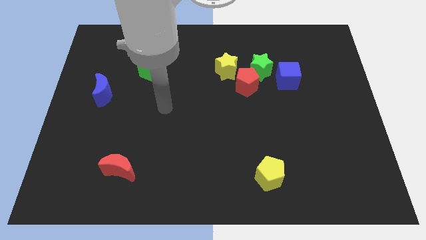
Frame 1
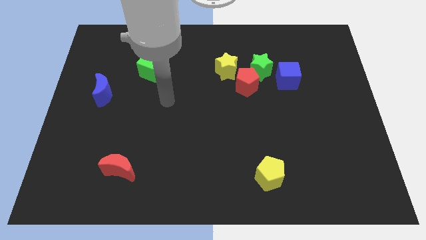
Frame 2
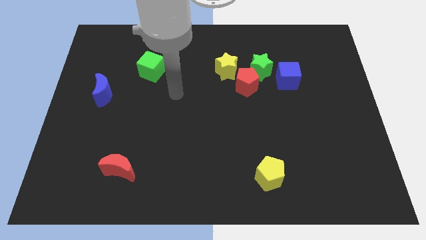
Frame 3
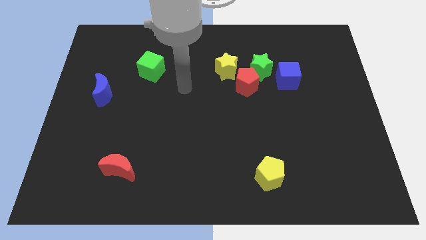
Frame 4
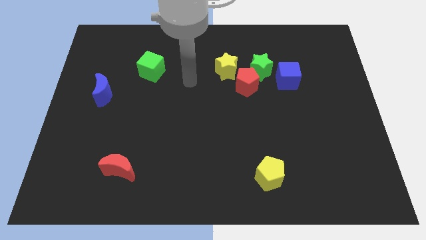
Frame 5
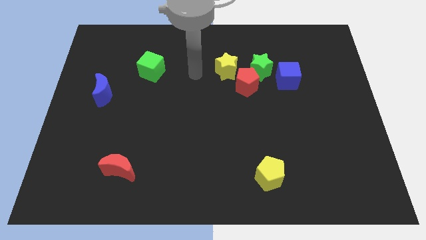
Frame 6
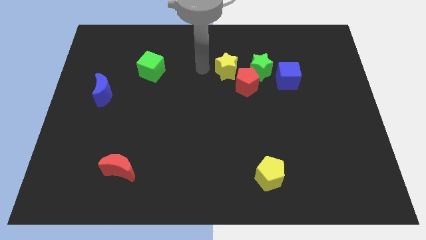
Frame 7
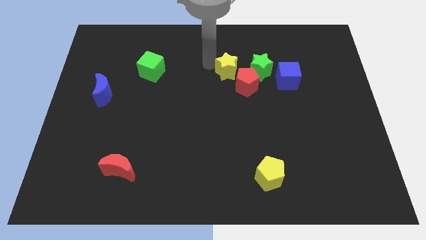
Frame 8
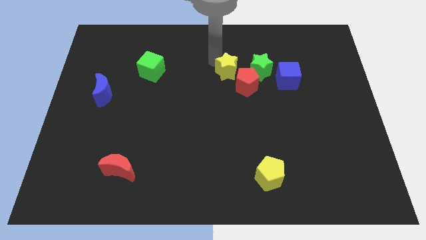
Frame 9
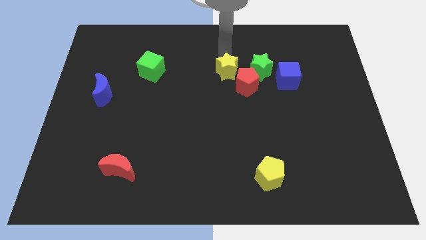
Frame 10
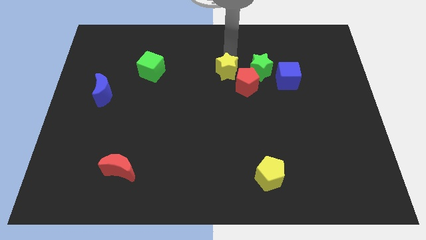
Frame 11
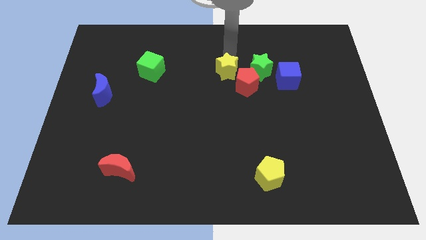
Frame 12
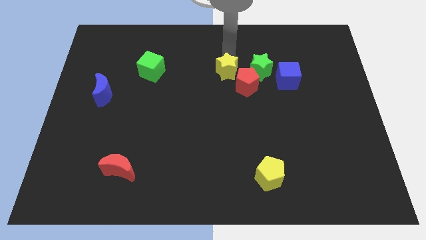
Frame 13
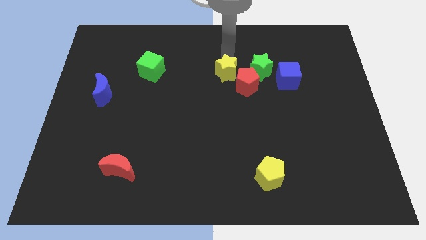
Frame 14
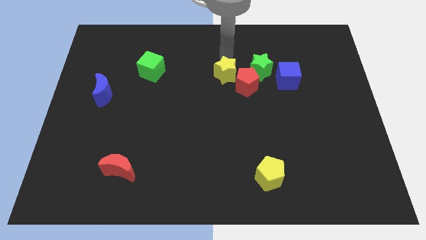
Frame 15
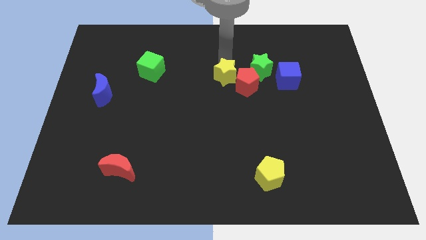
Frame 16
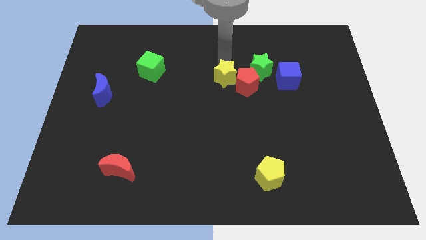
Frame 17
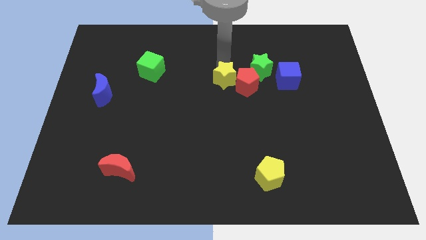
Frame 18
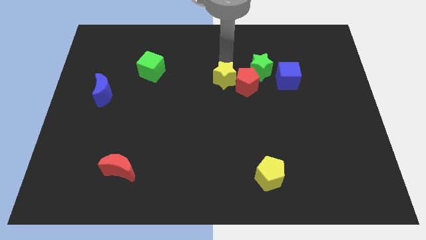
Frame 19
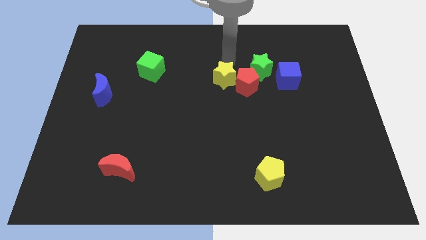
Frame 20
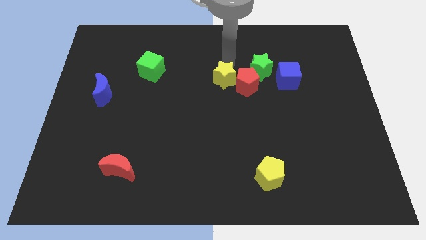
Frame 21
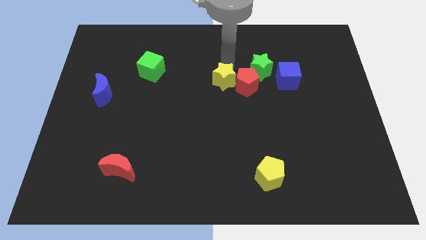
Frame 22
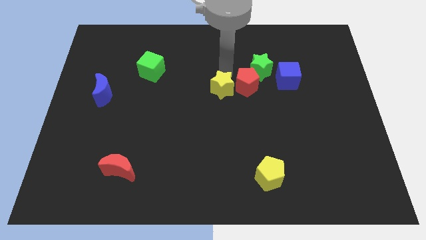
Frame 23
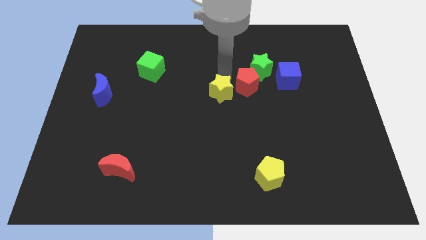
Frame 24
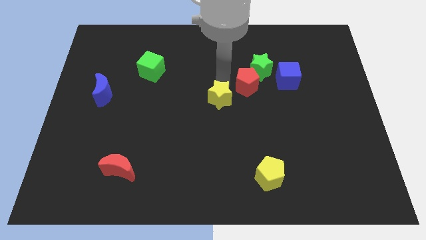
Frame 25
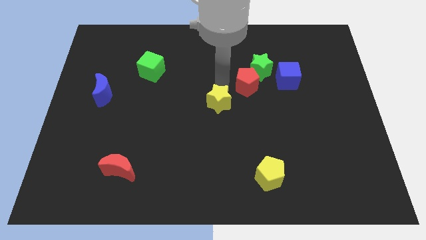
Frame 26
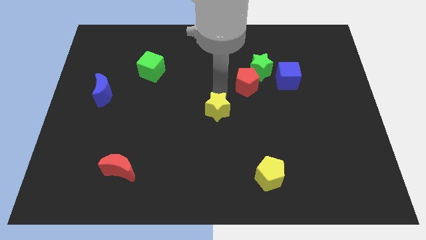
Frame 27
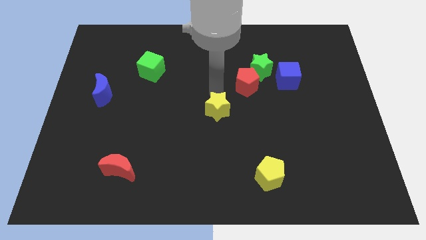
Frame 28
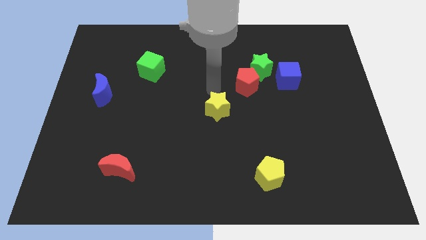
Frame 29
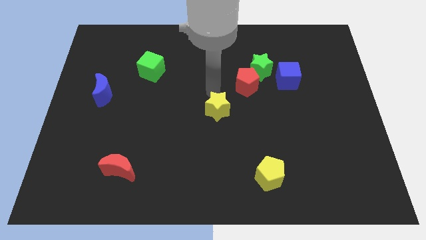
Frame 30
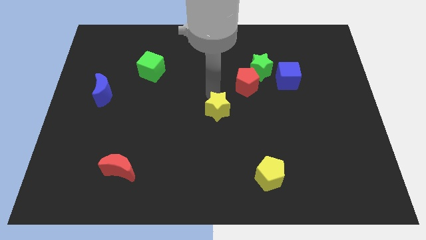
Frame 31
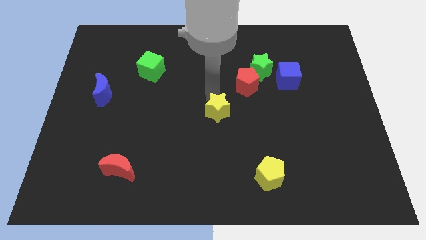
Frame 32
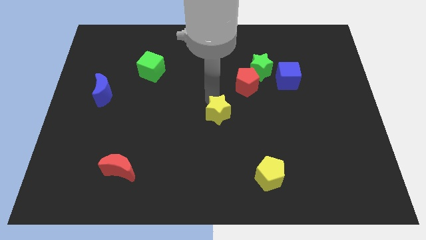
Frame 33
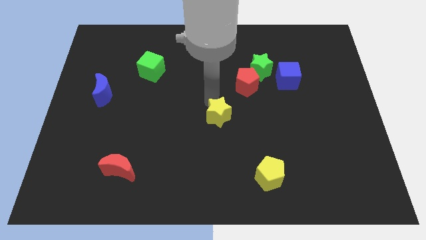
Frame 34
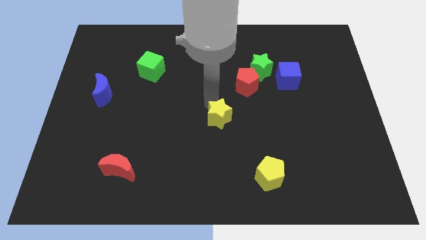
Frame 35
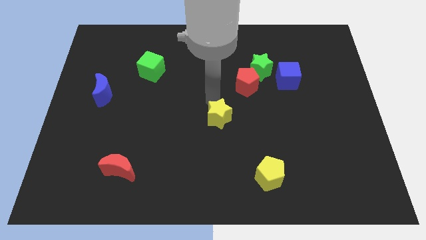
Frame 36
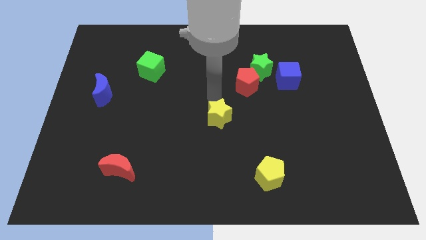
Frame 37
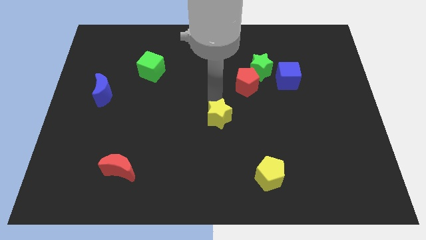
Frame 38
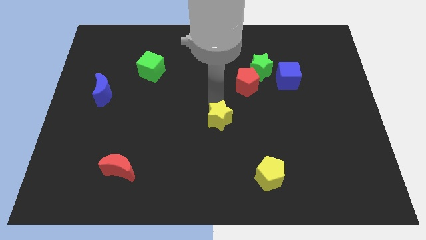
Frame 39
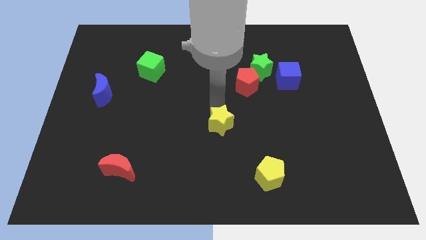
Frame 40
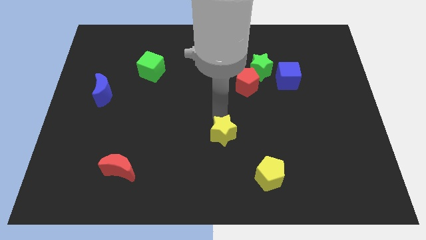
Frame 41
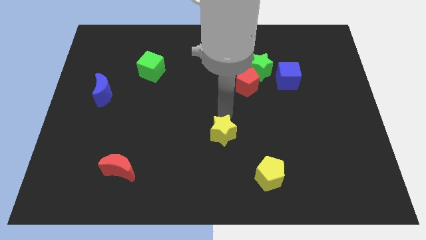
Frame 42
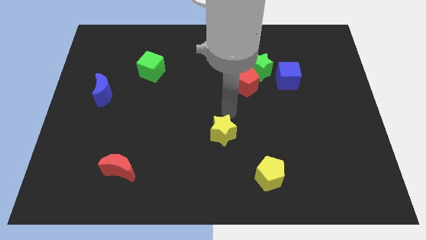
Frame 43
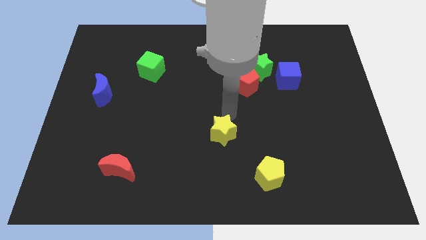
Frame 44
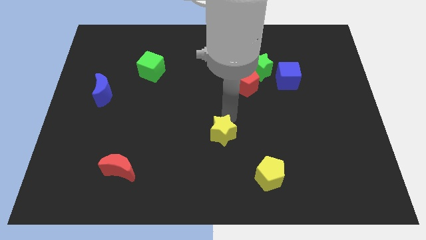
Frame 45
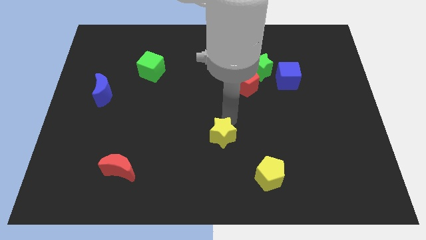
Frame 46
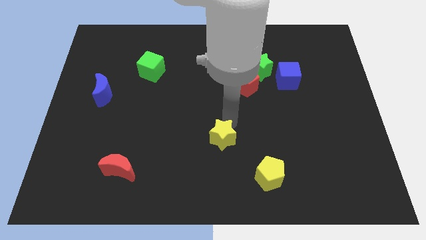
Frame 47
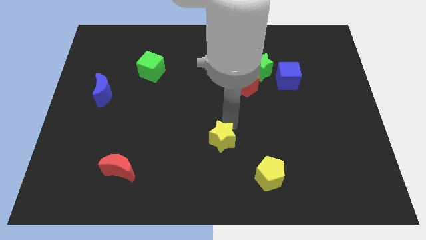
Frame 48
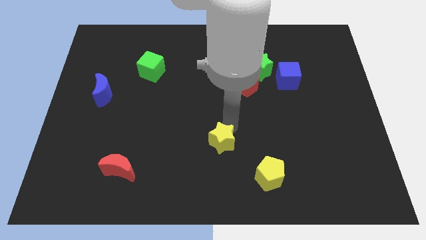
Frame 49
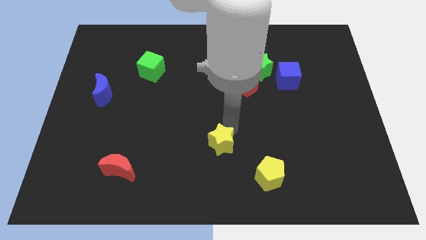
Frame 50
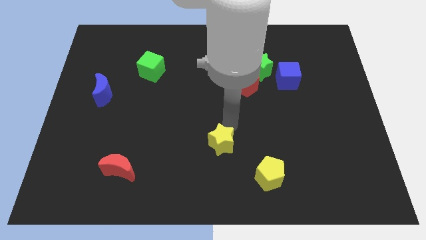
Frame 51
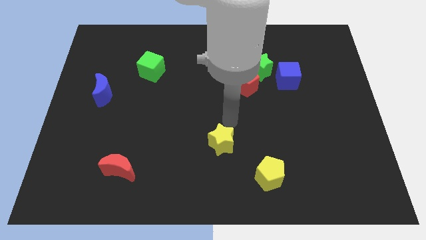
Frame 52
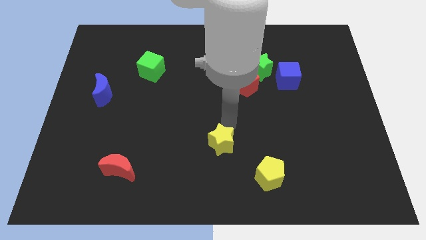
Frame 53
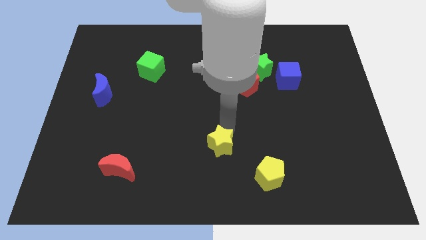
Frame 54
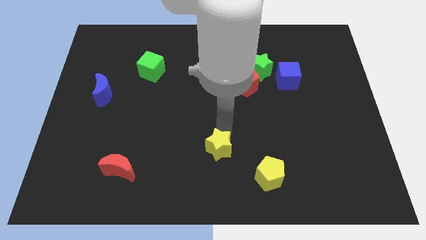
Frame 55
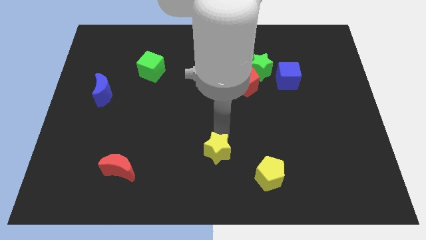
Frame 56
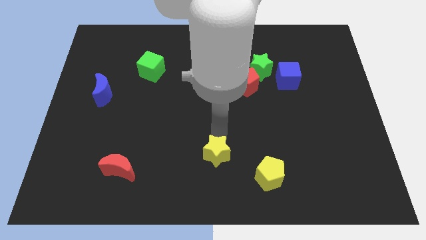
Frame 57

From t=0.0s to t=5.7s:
put the yellow star to the bottom

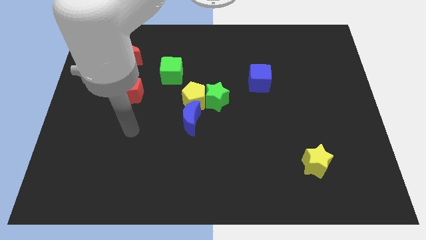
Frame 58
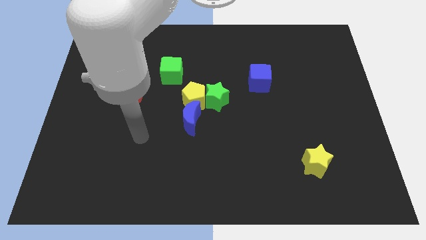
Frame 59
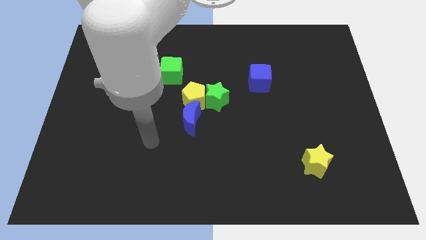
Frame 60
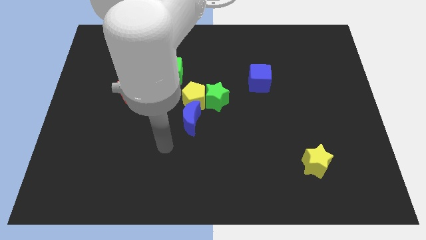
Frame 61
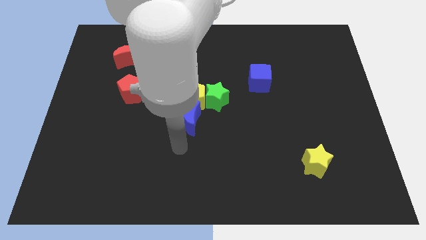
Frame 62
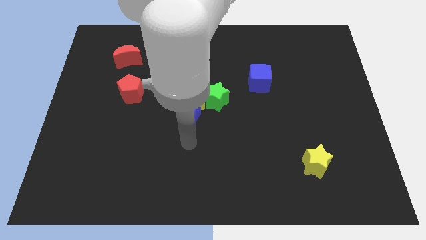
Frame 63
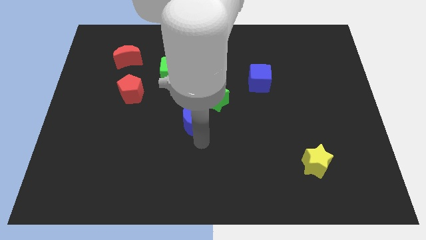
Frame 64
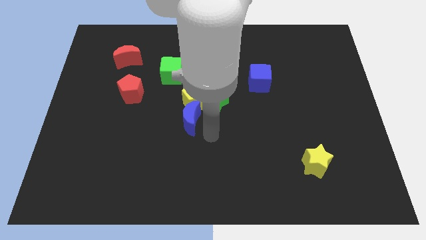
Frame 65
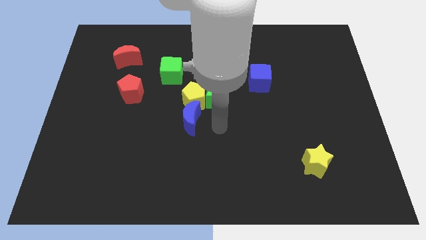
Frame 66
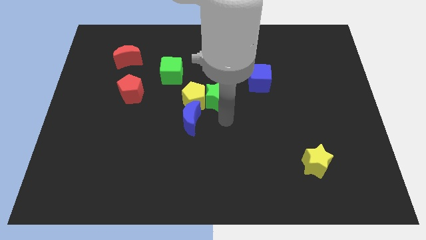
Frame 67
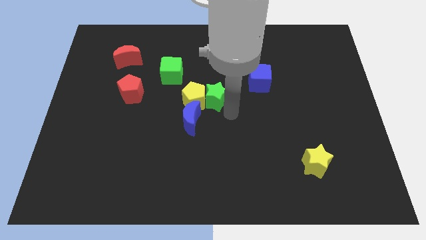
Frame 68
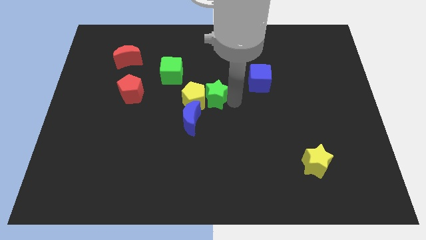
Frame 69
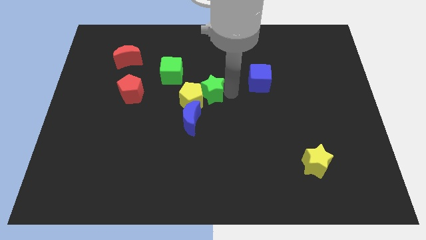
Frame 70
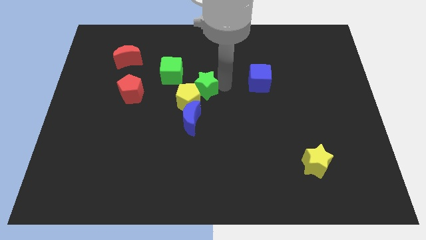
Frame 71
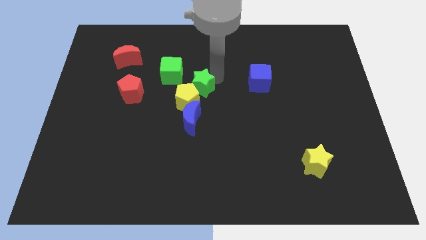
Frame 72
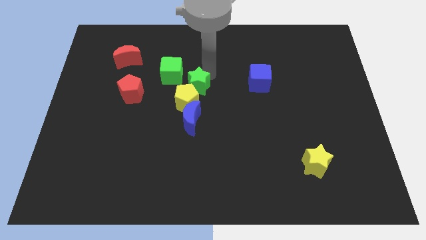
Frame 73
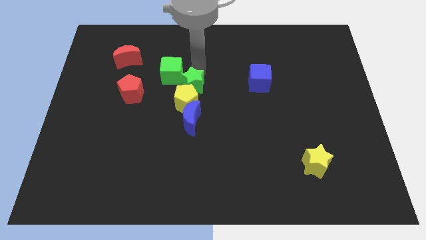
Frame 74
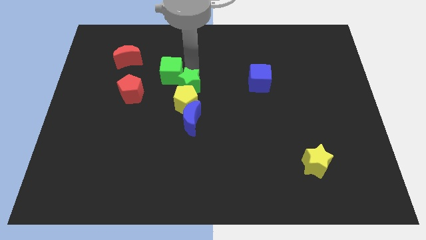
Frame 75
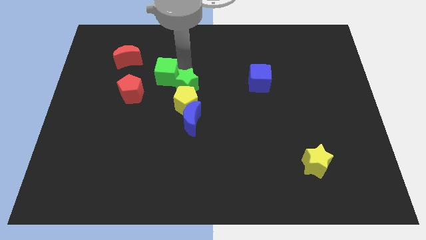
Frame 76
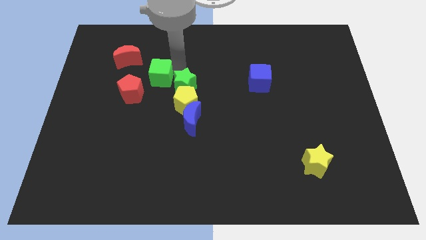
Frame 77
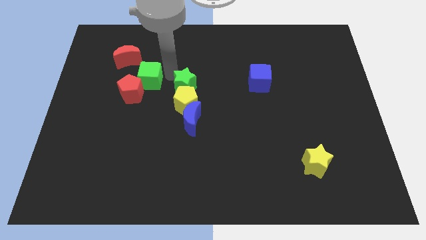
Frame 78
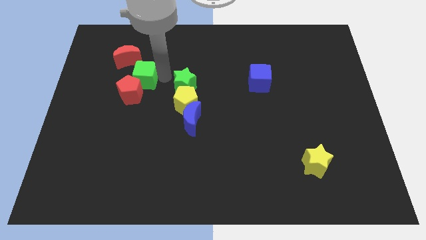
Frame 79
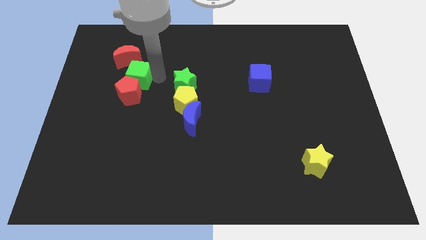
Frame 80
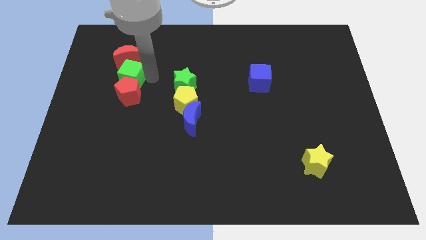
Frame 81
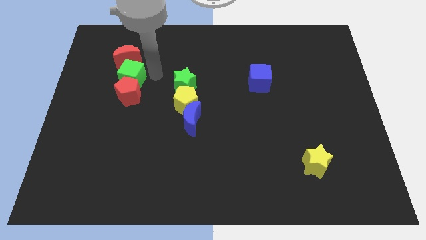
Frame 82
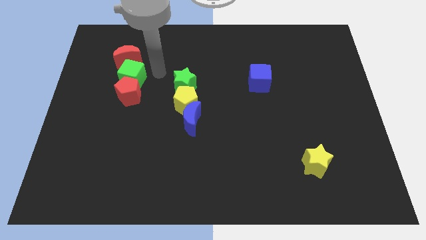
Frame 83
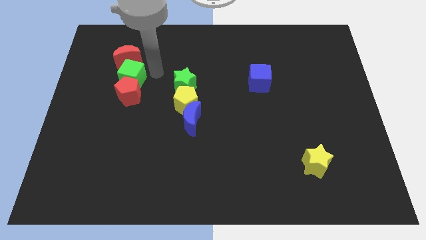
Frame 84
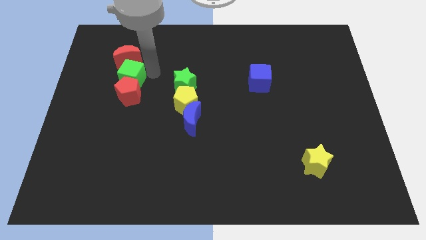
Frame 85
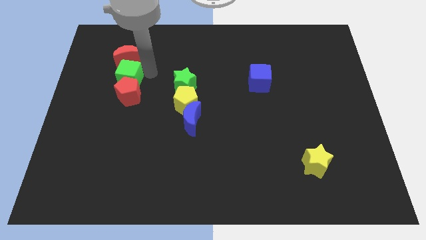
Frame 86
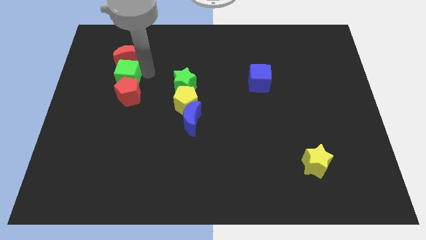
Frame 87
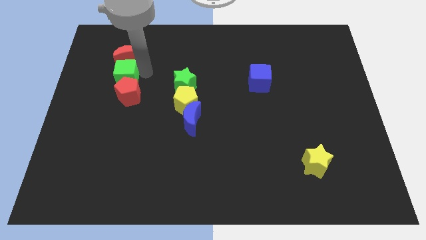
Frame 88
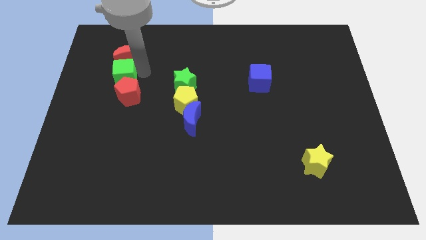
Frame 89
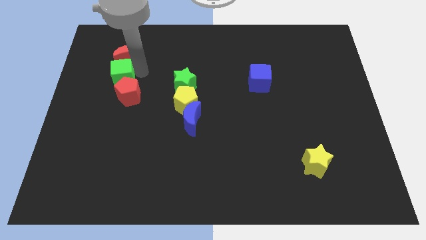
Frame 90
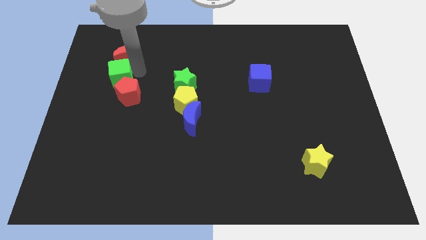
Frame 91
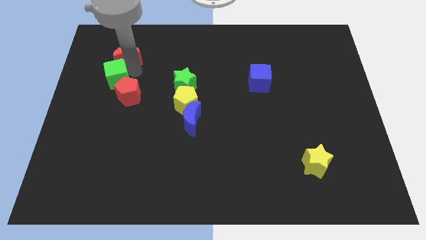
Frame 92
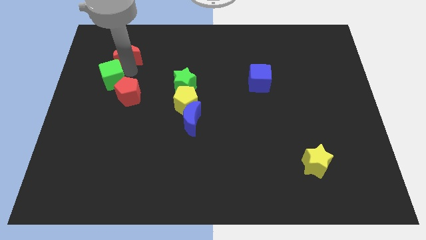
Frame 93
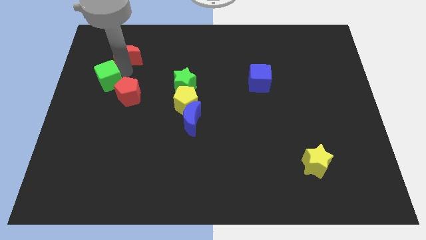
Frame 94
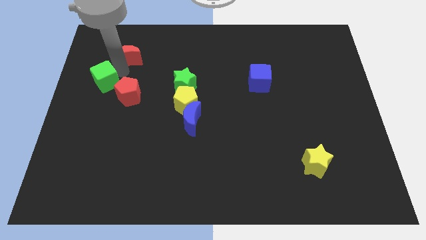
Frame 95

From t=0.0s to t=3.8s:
slide the green cube to the center left
